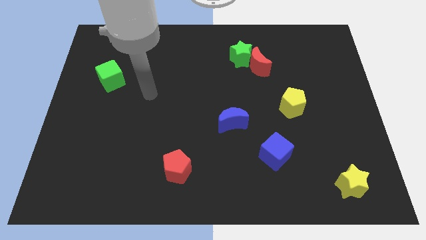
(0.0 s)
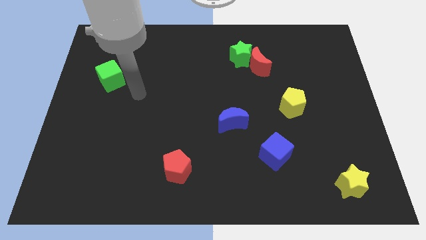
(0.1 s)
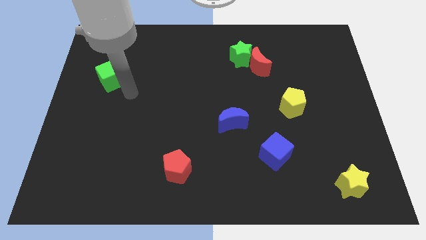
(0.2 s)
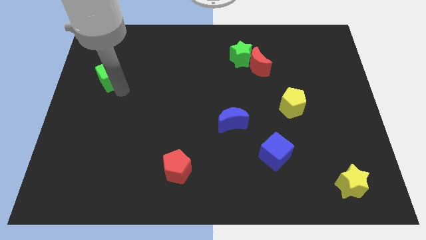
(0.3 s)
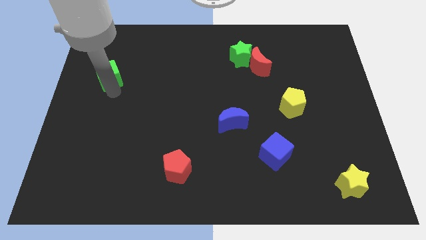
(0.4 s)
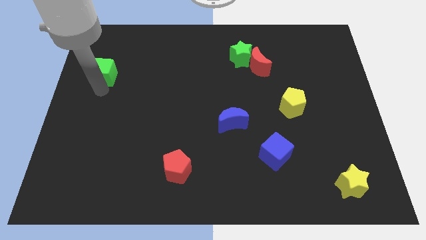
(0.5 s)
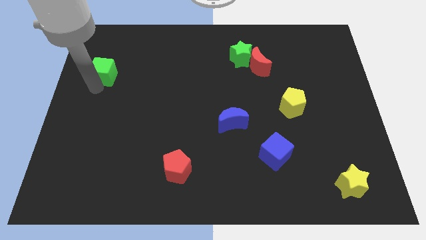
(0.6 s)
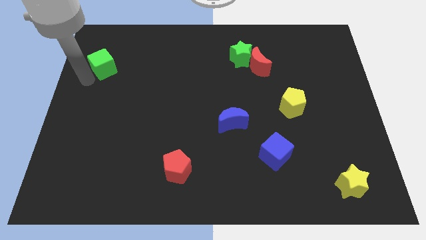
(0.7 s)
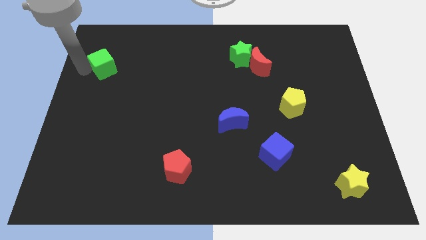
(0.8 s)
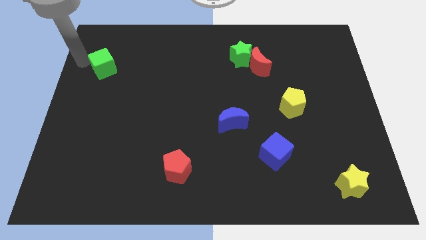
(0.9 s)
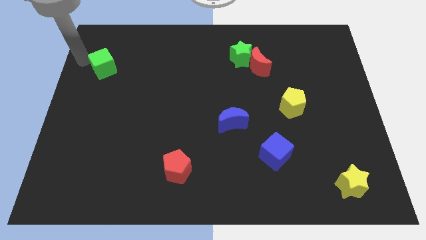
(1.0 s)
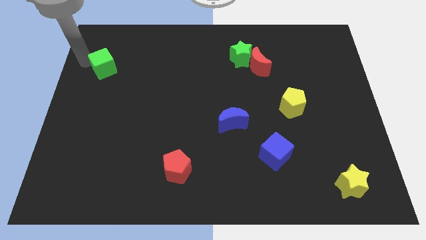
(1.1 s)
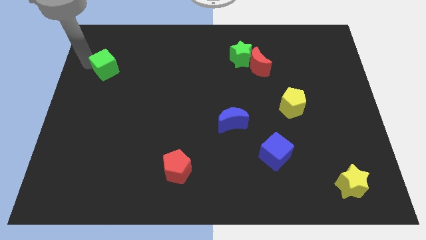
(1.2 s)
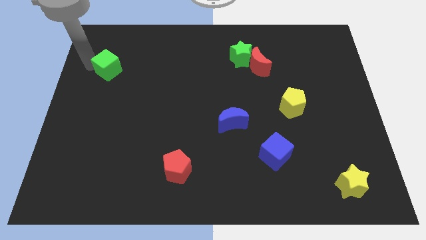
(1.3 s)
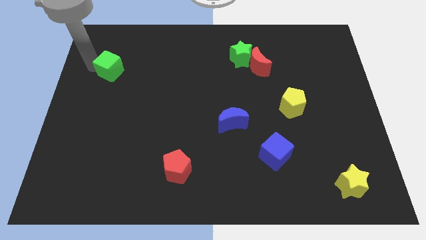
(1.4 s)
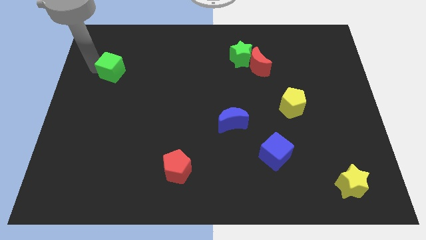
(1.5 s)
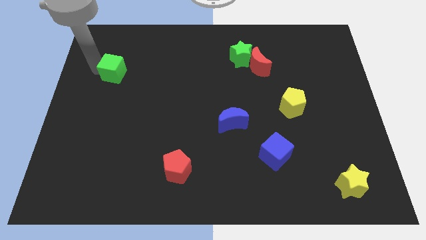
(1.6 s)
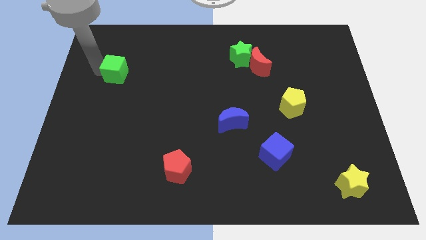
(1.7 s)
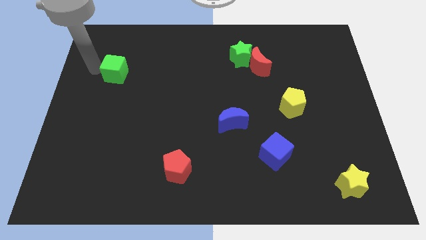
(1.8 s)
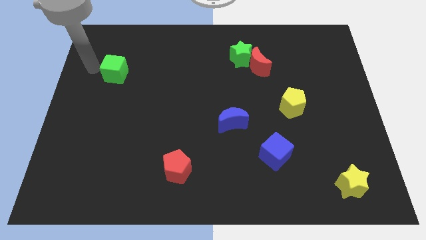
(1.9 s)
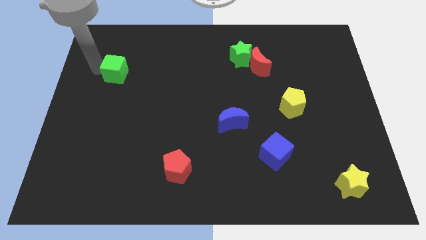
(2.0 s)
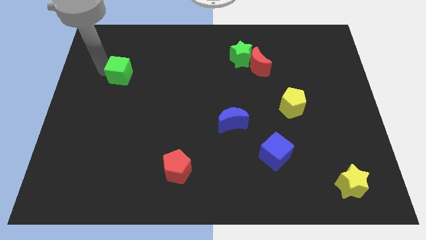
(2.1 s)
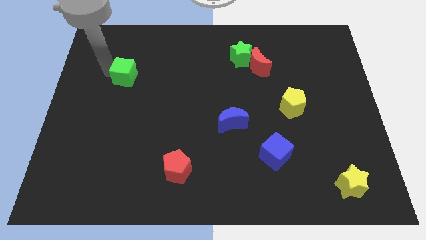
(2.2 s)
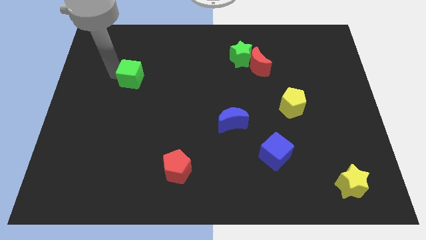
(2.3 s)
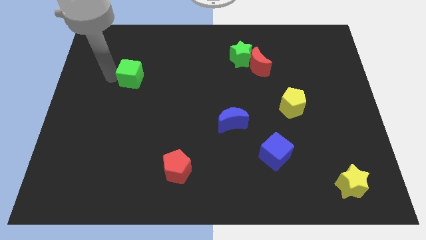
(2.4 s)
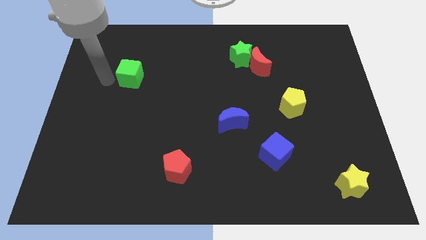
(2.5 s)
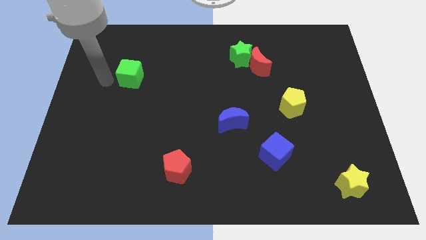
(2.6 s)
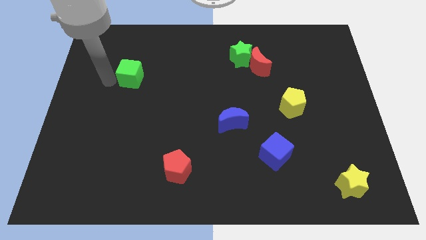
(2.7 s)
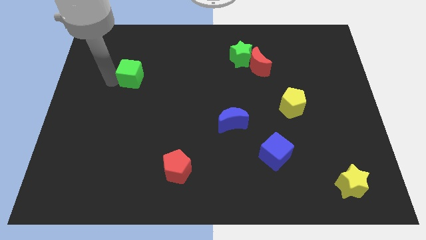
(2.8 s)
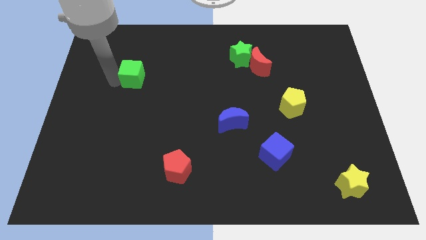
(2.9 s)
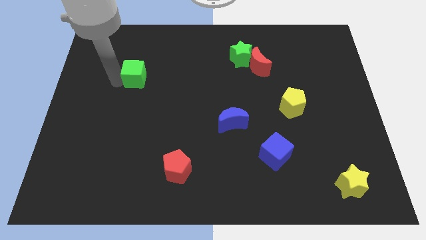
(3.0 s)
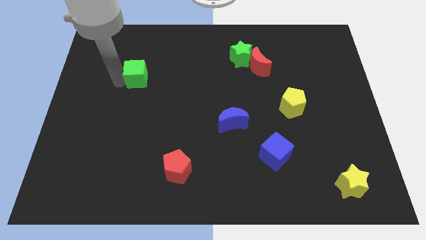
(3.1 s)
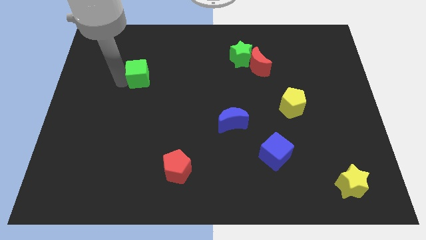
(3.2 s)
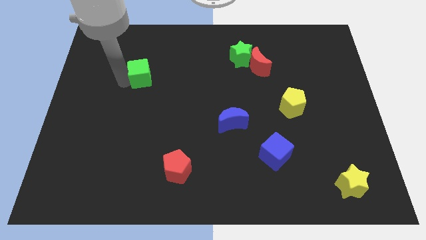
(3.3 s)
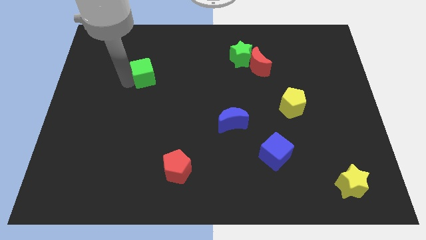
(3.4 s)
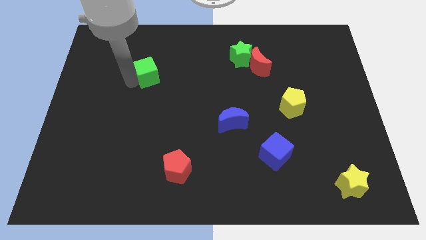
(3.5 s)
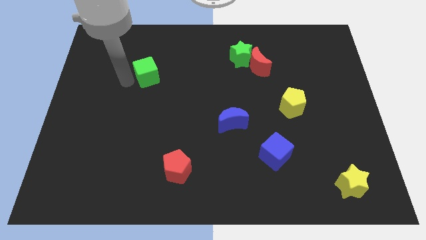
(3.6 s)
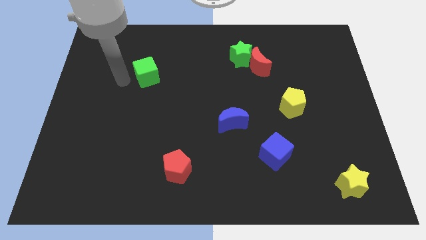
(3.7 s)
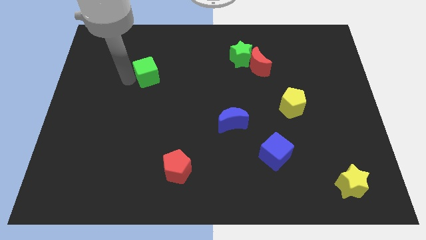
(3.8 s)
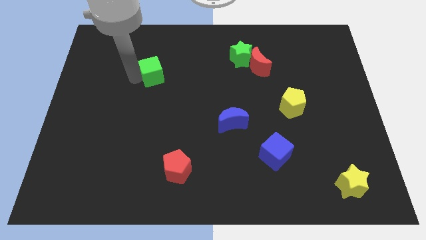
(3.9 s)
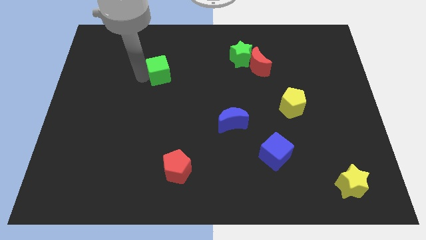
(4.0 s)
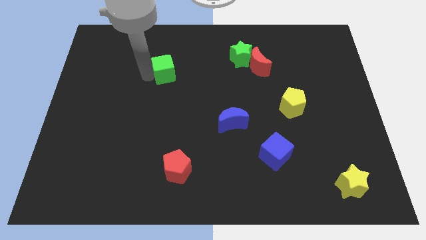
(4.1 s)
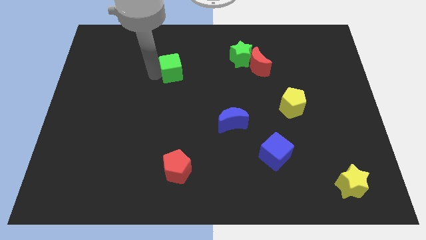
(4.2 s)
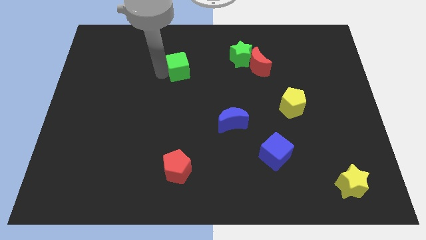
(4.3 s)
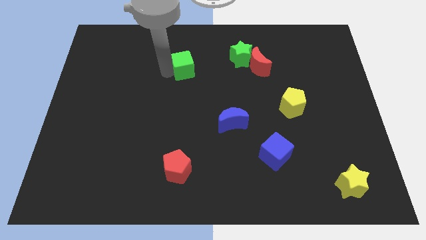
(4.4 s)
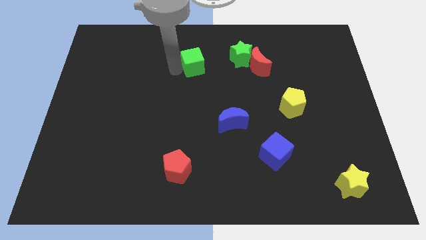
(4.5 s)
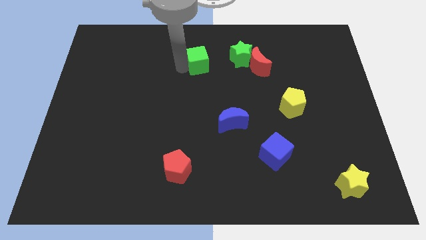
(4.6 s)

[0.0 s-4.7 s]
slide the green cube to the left side of the red moon

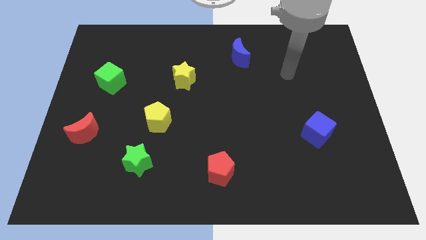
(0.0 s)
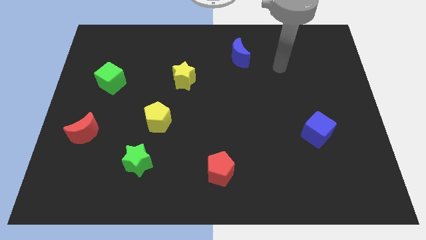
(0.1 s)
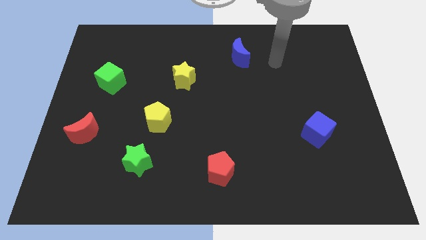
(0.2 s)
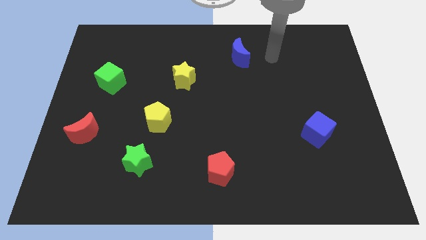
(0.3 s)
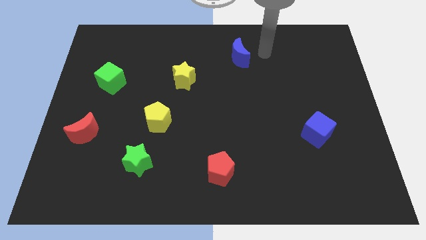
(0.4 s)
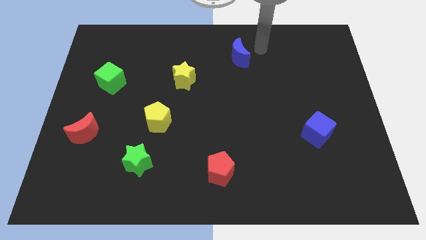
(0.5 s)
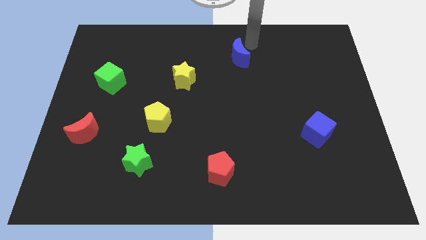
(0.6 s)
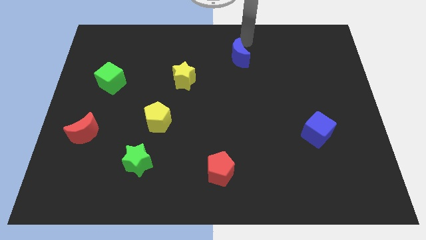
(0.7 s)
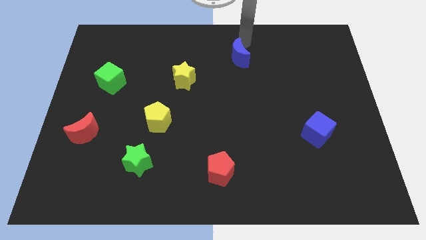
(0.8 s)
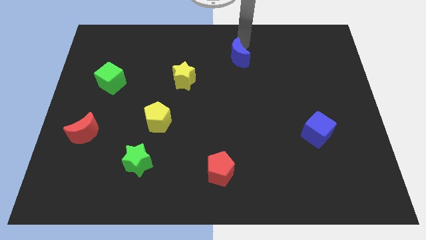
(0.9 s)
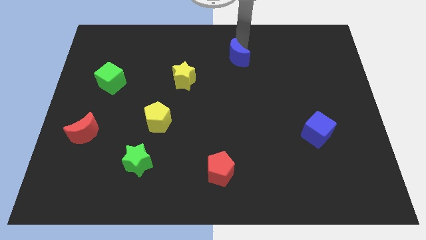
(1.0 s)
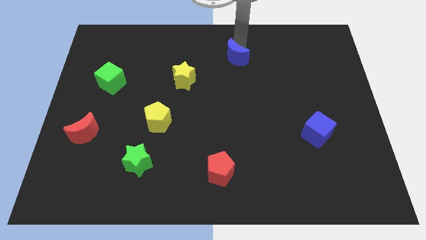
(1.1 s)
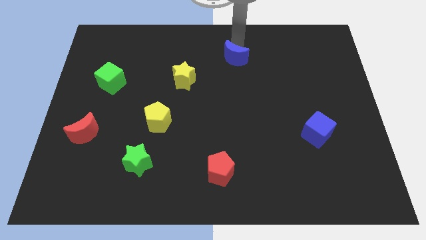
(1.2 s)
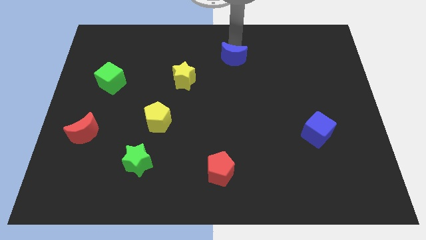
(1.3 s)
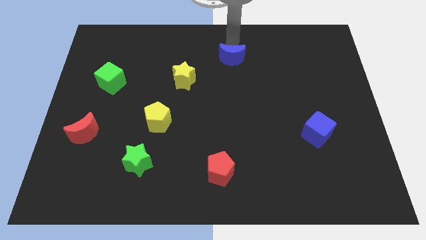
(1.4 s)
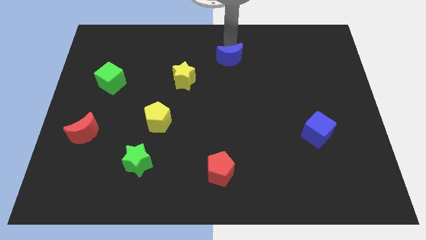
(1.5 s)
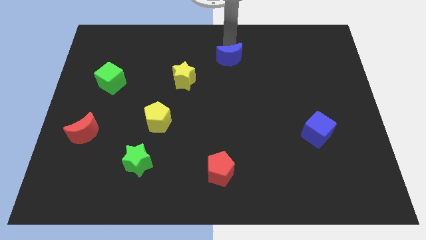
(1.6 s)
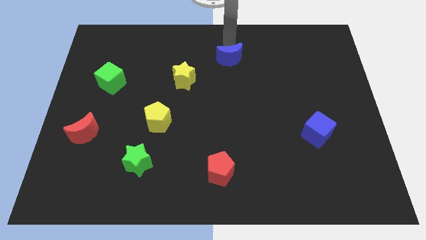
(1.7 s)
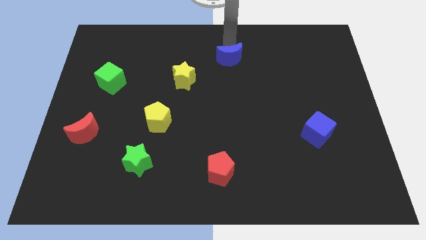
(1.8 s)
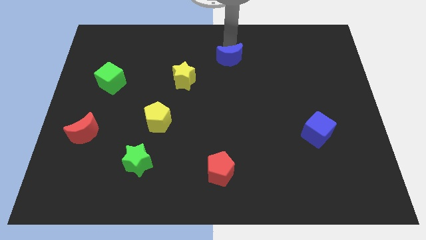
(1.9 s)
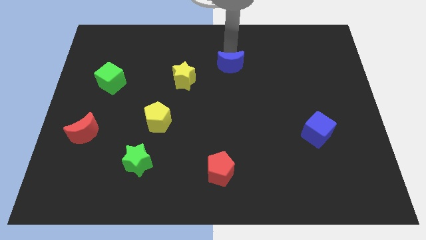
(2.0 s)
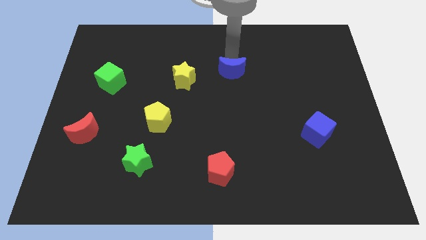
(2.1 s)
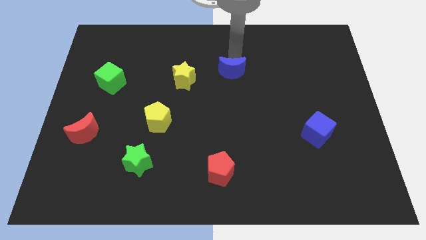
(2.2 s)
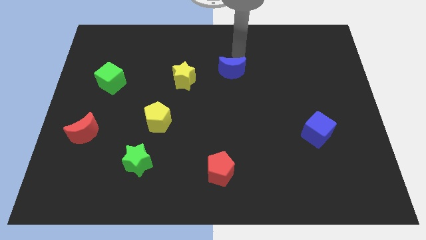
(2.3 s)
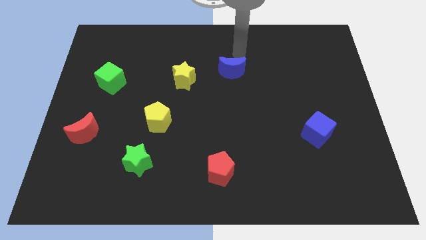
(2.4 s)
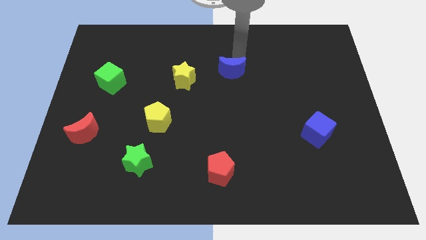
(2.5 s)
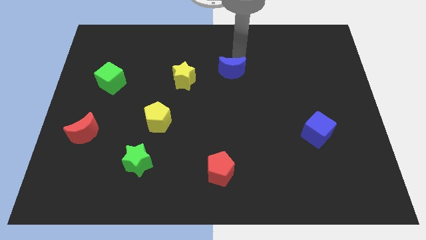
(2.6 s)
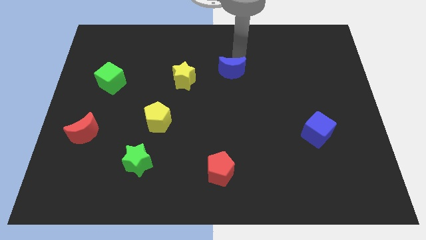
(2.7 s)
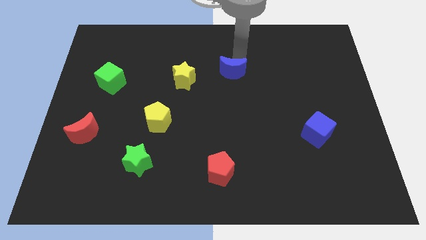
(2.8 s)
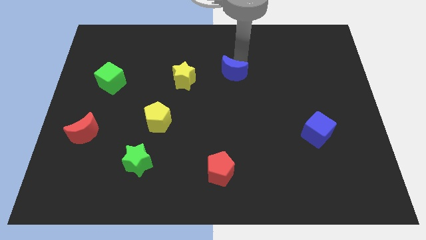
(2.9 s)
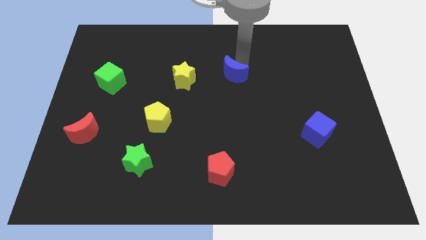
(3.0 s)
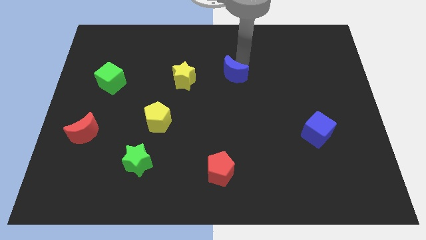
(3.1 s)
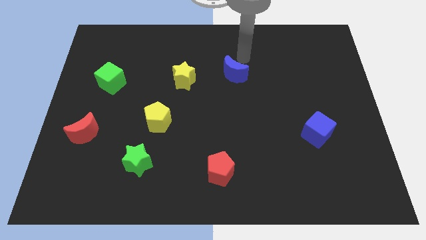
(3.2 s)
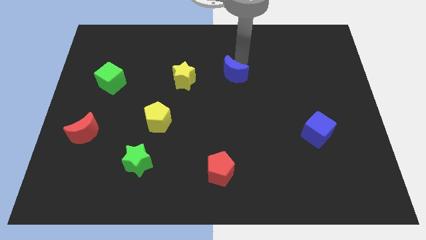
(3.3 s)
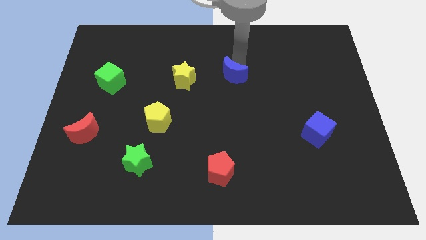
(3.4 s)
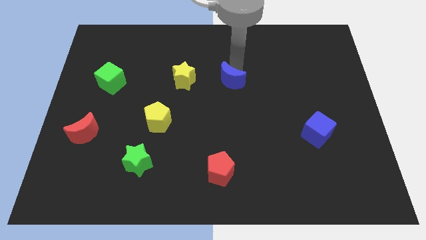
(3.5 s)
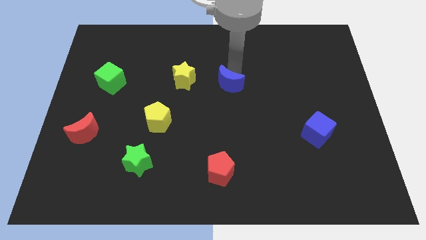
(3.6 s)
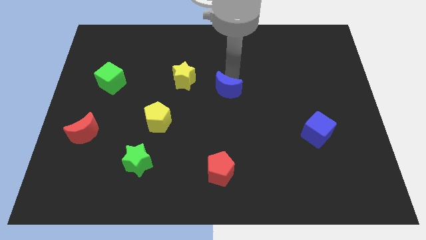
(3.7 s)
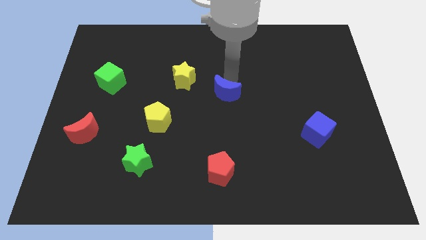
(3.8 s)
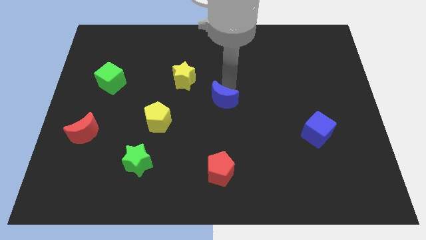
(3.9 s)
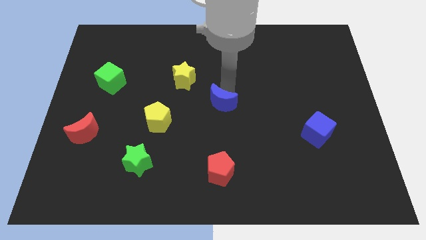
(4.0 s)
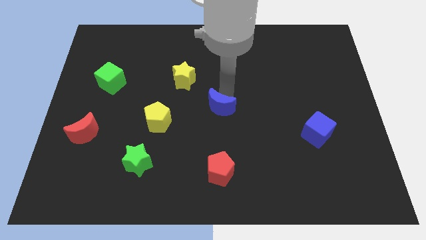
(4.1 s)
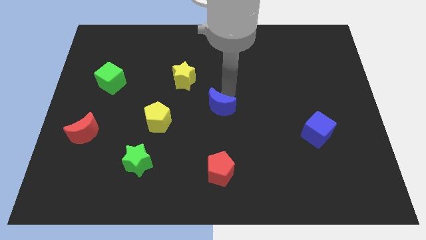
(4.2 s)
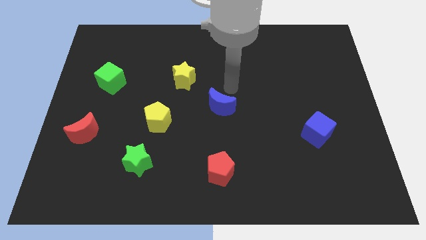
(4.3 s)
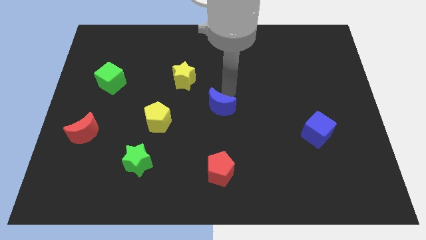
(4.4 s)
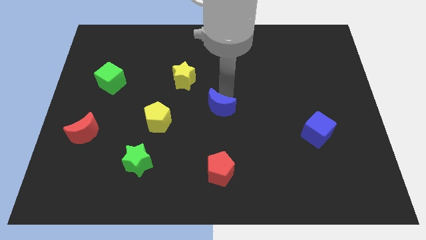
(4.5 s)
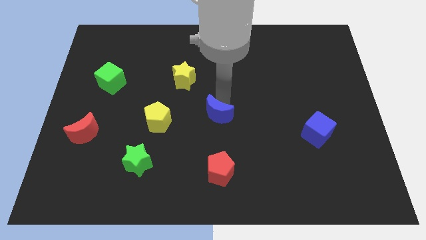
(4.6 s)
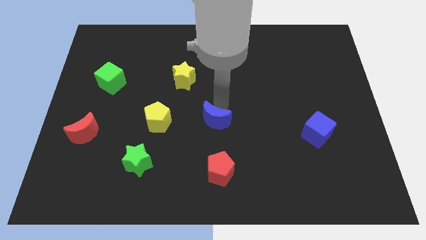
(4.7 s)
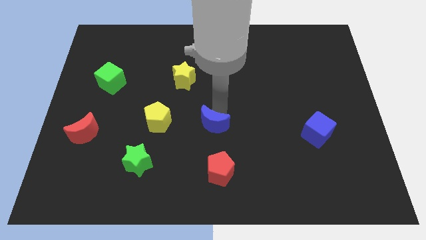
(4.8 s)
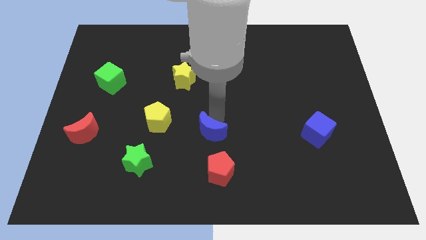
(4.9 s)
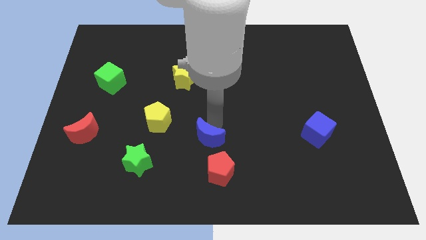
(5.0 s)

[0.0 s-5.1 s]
put the blue moon to the top left of the red pentagon
